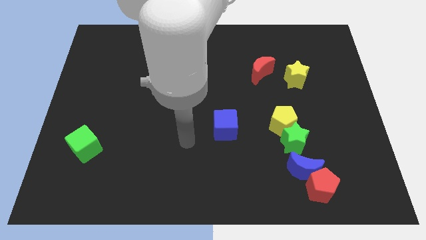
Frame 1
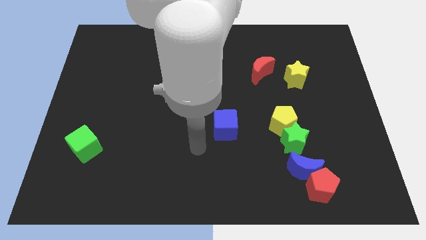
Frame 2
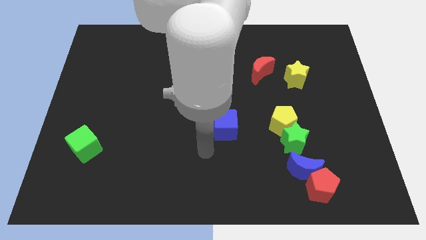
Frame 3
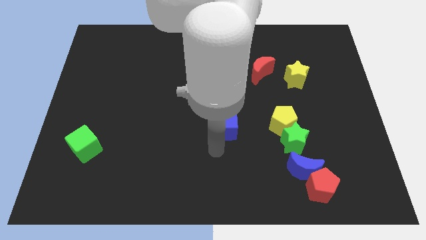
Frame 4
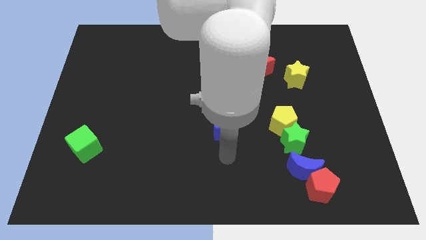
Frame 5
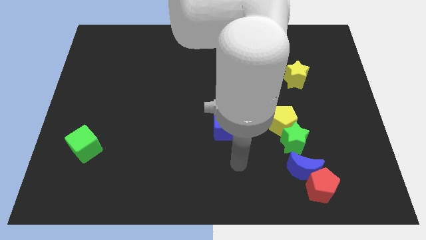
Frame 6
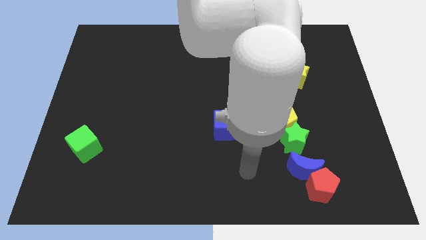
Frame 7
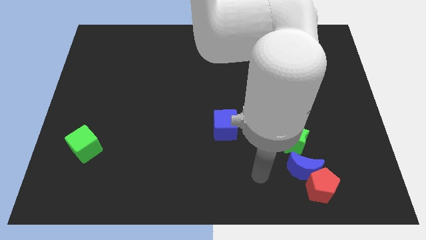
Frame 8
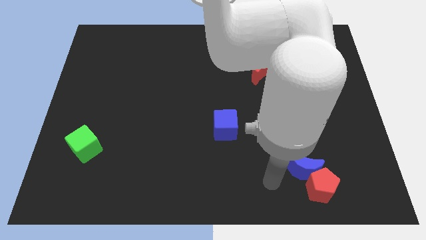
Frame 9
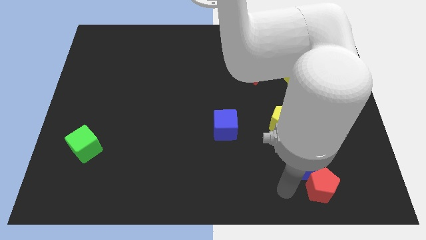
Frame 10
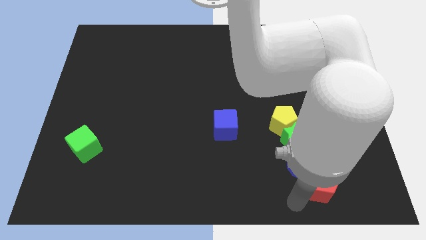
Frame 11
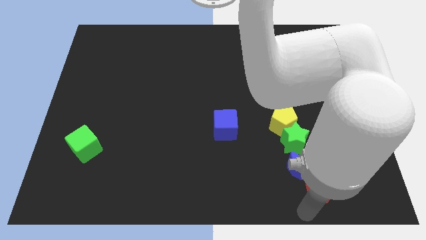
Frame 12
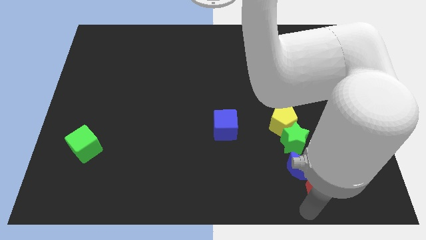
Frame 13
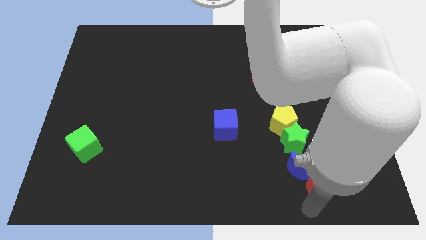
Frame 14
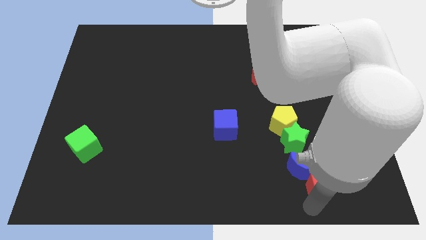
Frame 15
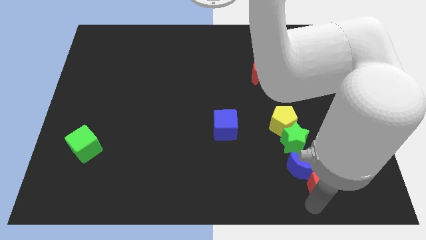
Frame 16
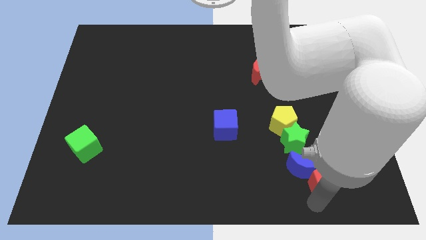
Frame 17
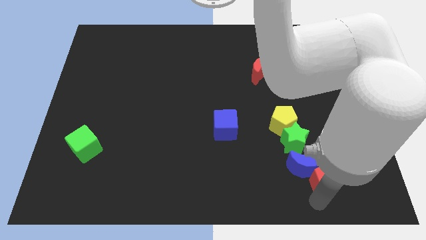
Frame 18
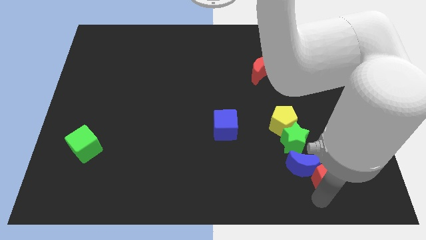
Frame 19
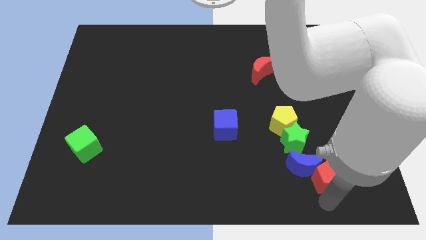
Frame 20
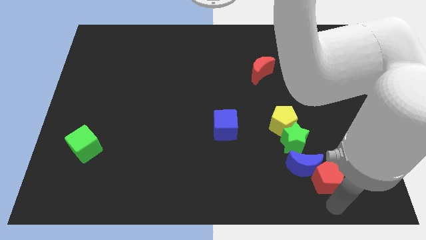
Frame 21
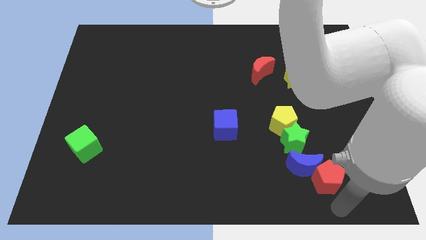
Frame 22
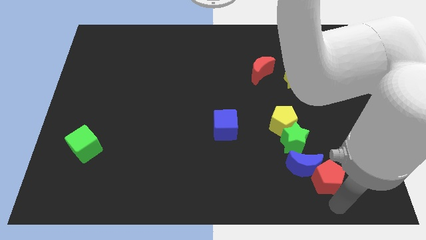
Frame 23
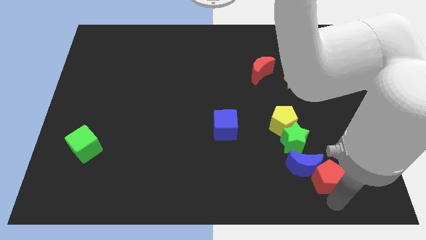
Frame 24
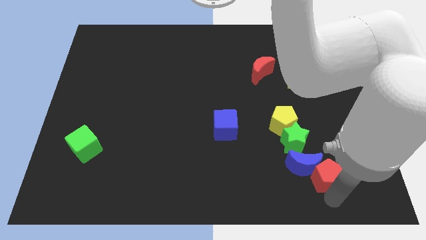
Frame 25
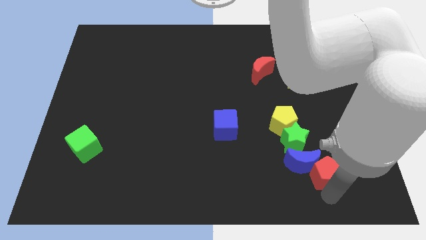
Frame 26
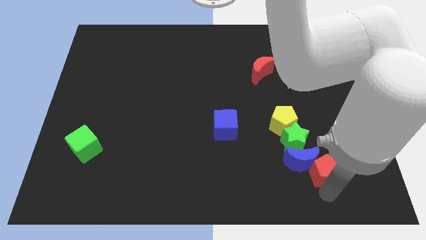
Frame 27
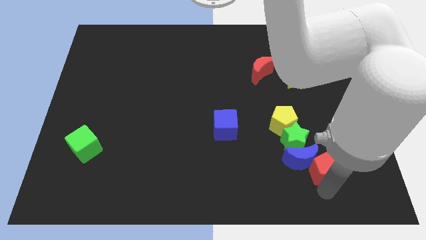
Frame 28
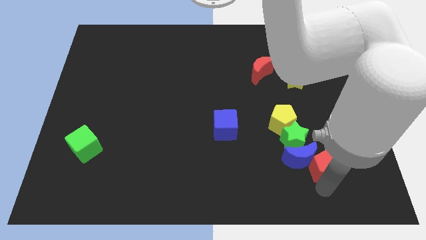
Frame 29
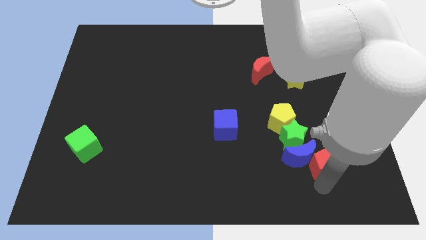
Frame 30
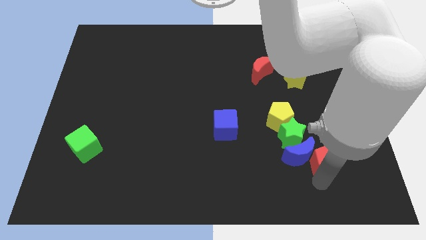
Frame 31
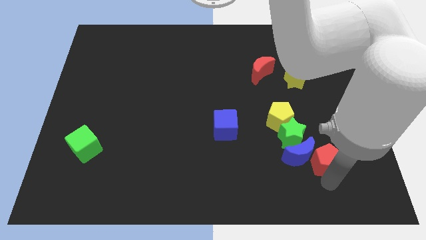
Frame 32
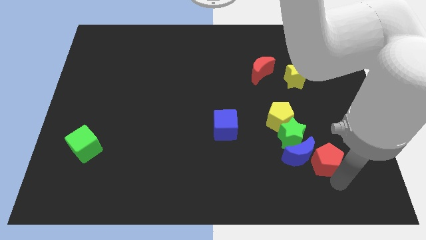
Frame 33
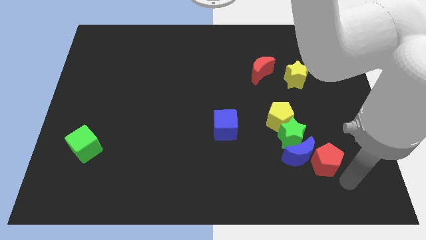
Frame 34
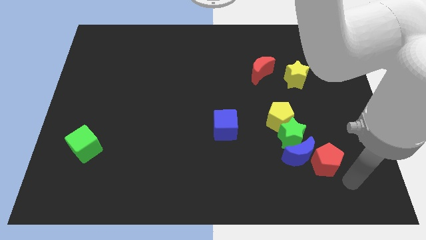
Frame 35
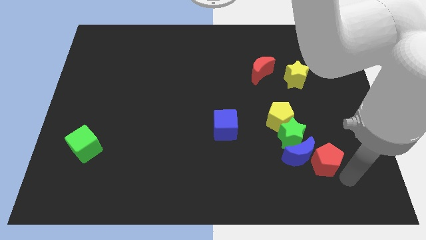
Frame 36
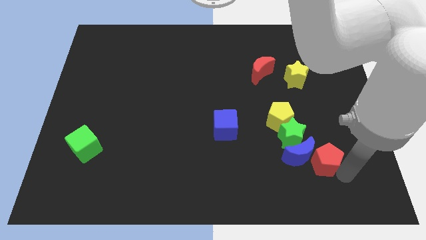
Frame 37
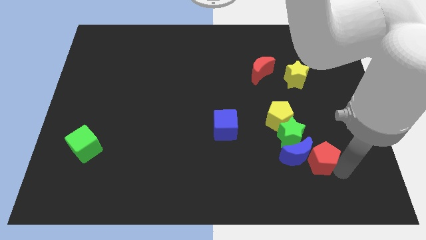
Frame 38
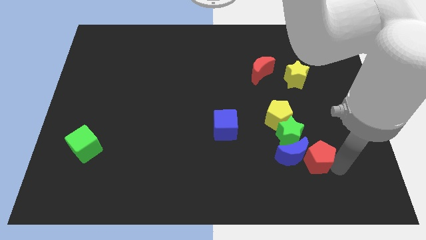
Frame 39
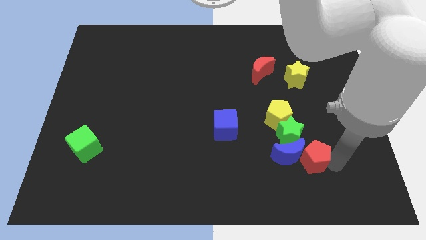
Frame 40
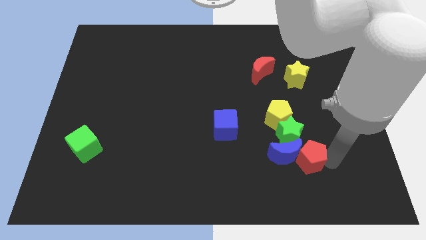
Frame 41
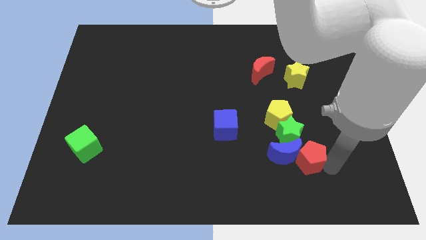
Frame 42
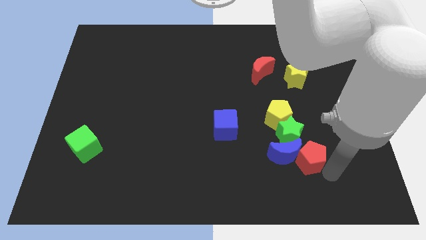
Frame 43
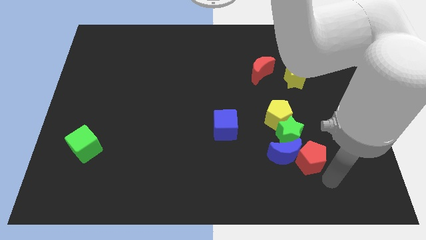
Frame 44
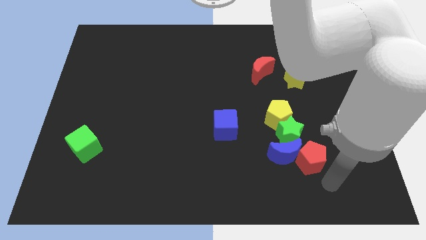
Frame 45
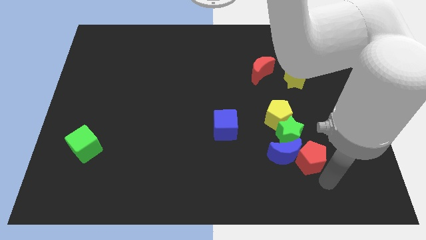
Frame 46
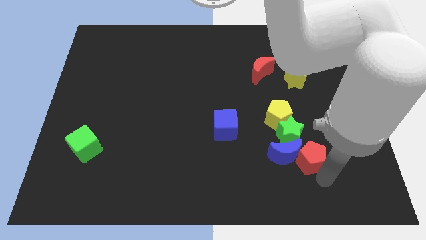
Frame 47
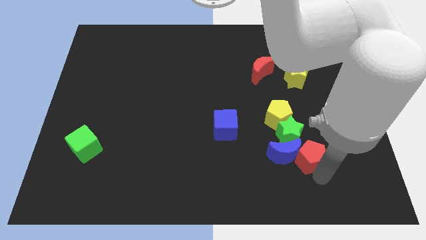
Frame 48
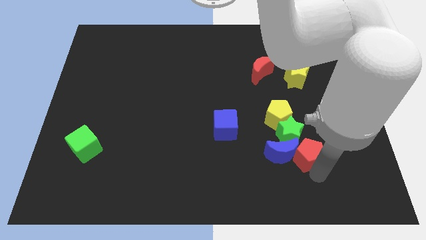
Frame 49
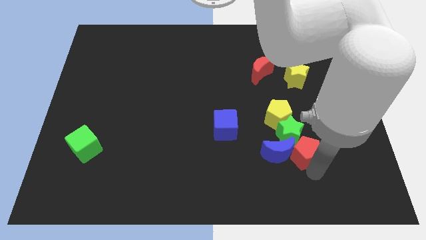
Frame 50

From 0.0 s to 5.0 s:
move the red pentagon to the green star

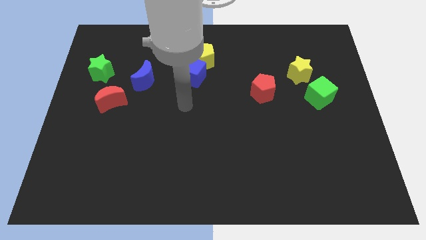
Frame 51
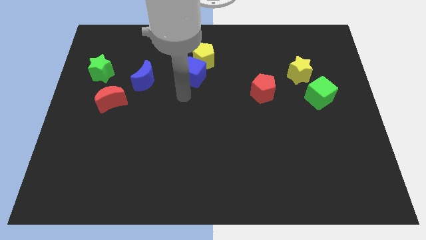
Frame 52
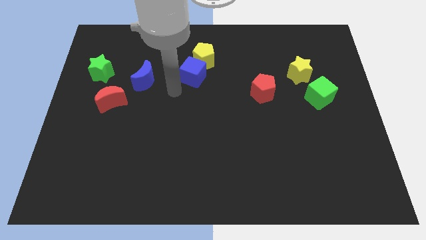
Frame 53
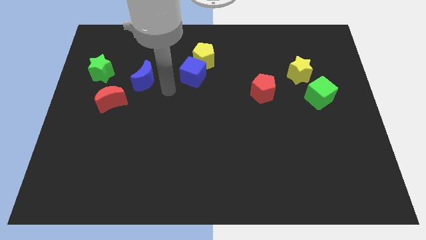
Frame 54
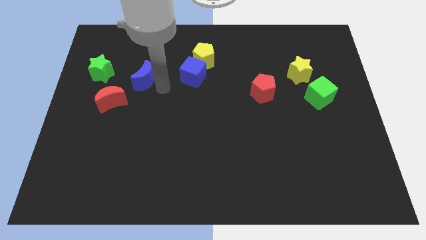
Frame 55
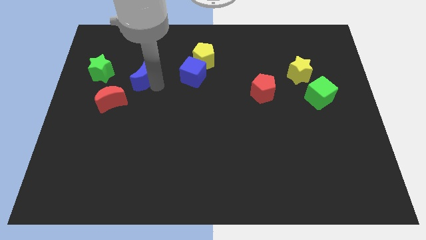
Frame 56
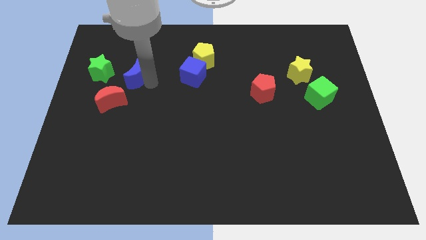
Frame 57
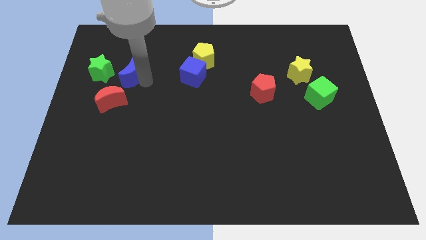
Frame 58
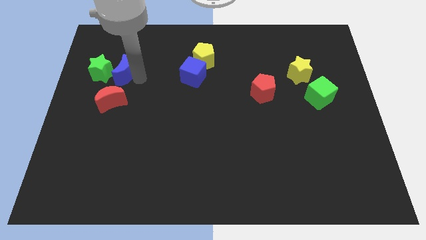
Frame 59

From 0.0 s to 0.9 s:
put the blue moon next to the green star
